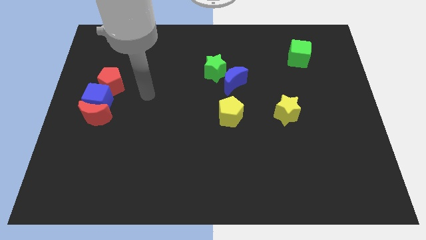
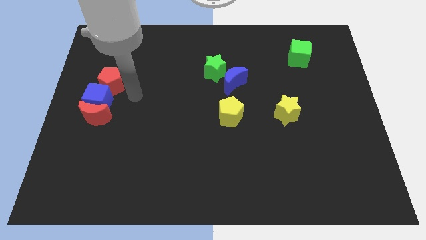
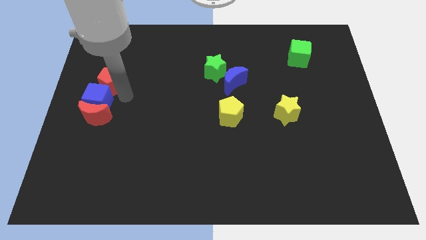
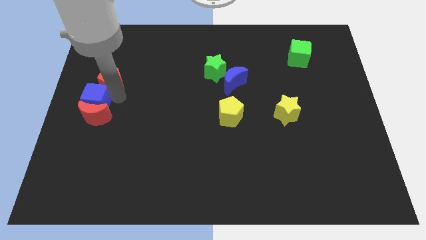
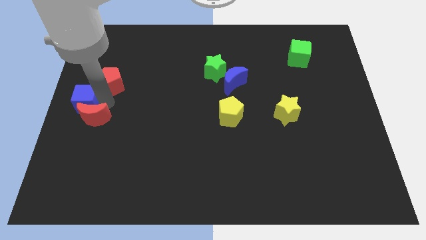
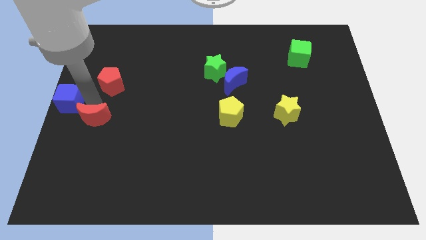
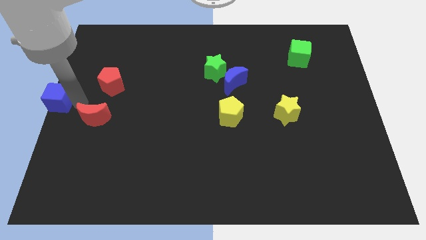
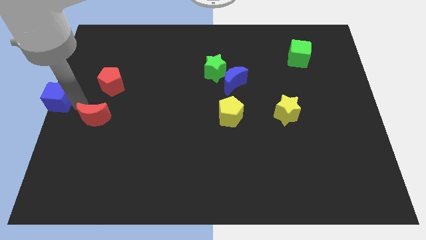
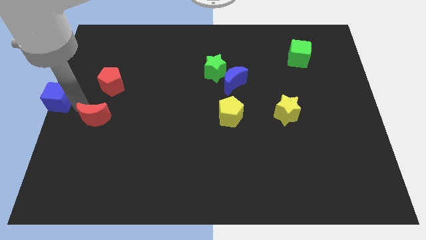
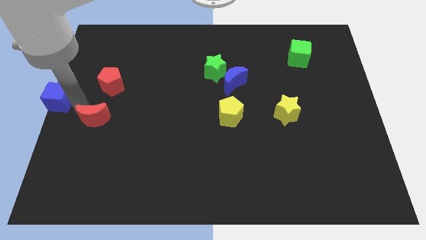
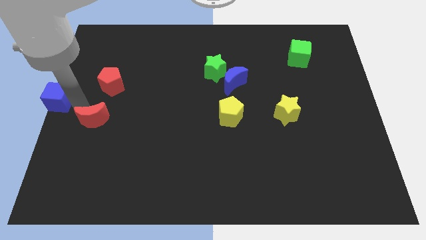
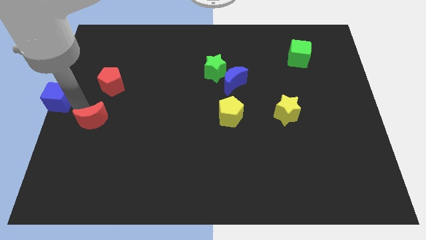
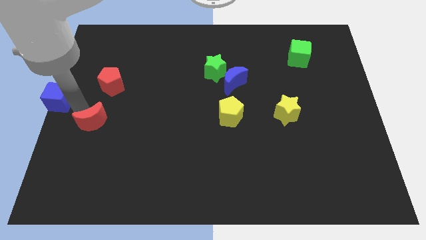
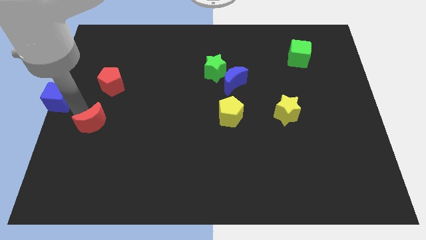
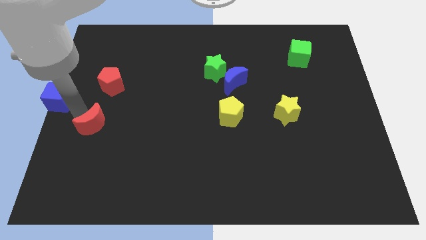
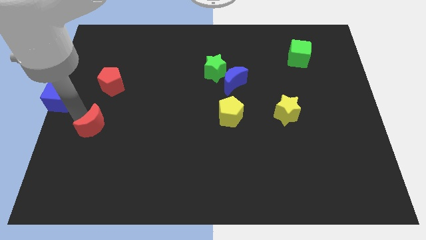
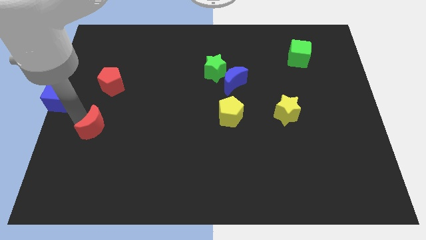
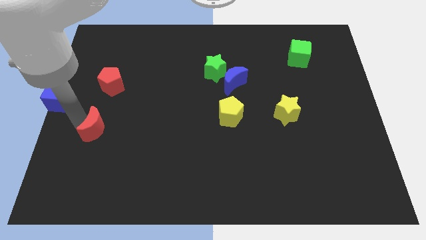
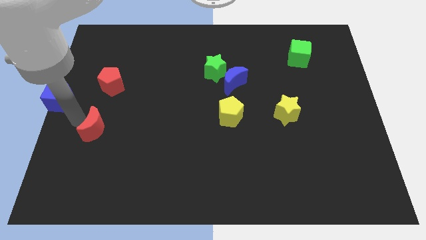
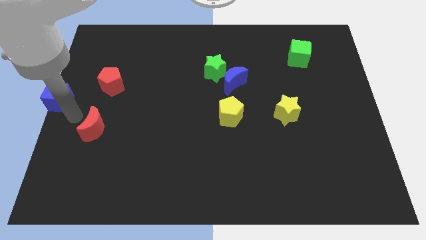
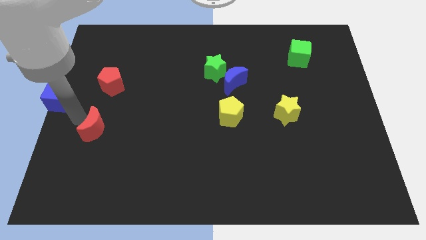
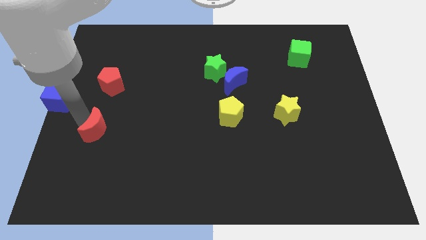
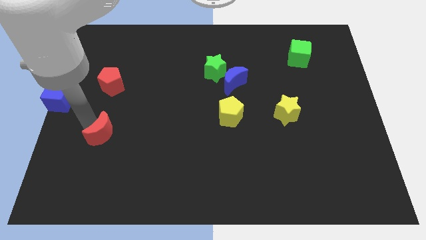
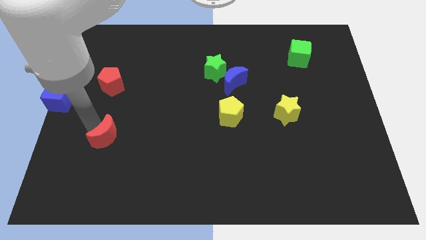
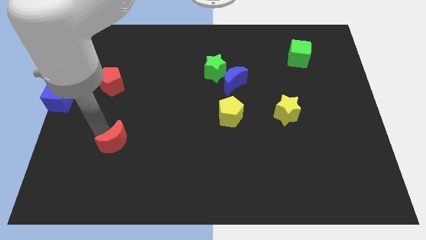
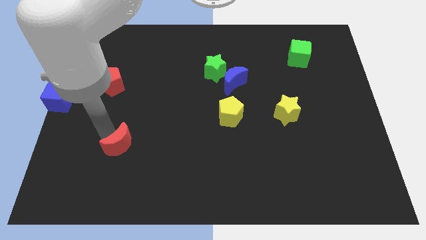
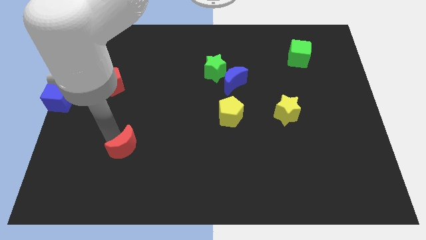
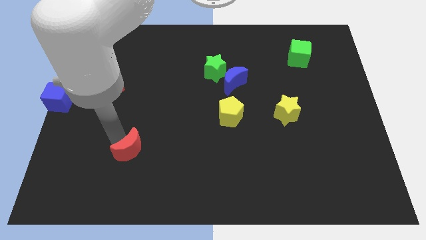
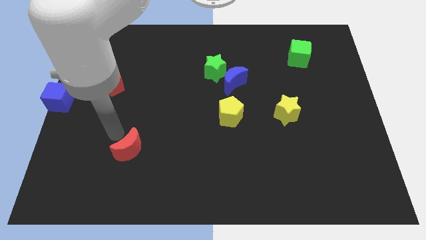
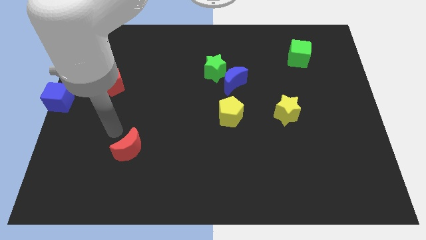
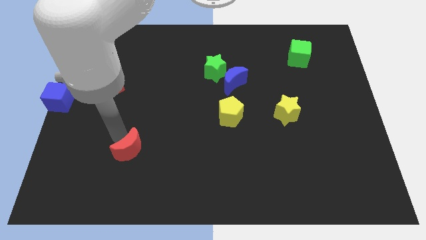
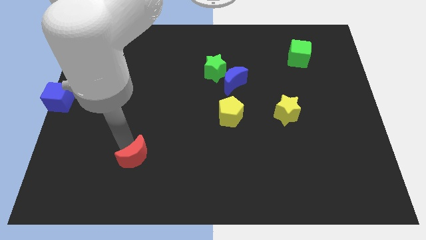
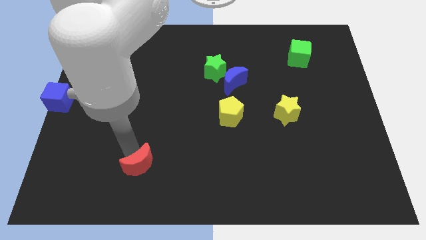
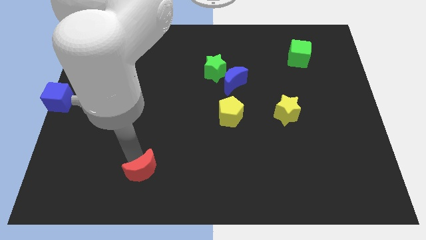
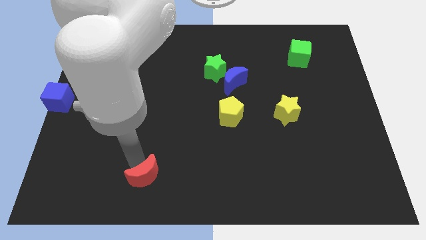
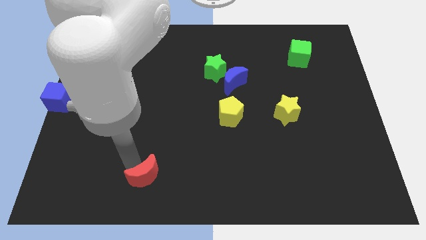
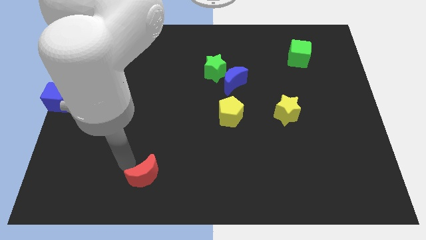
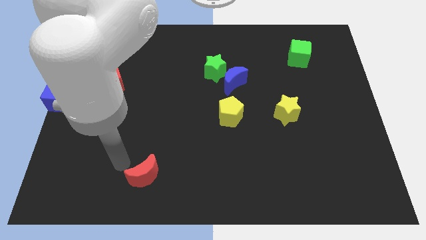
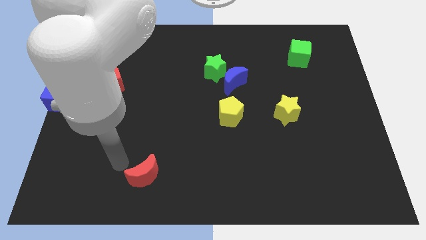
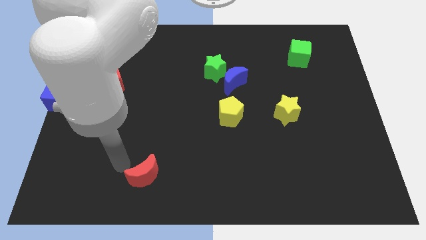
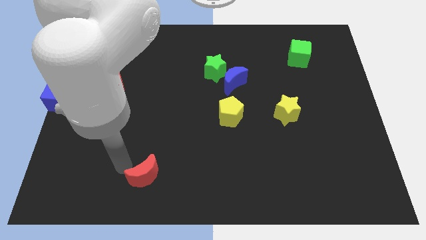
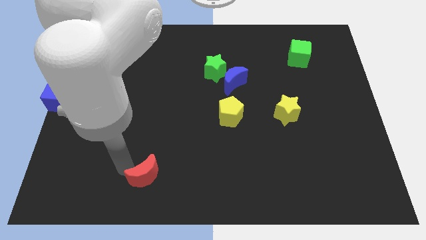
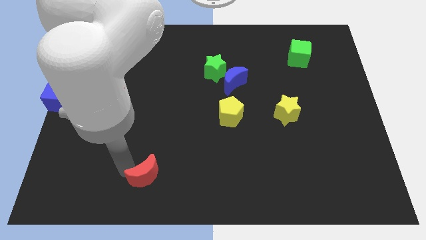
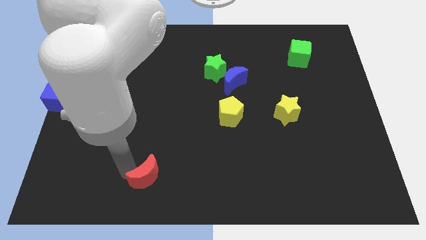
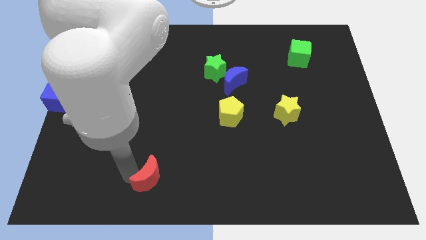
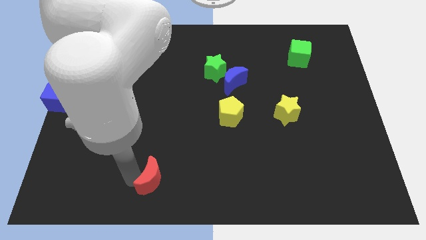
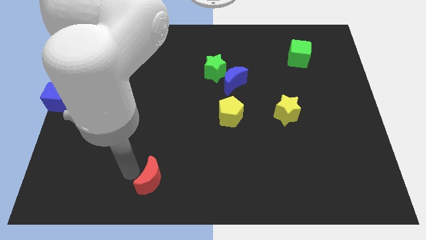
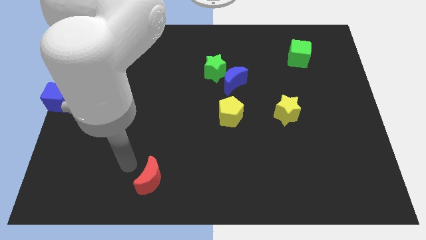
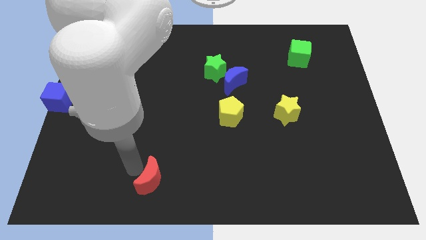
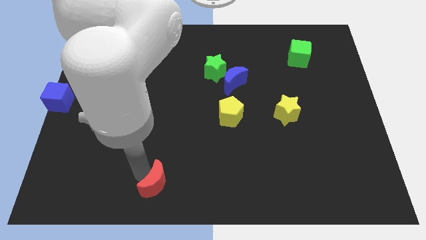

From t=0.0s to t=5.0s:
put the red moon to the bottom side

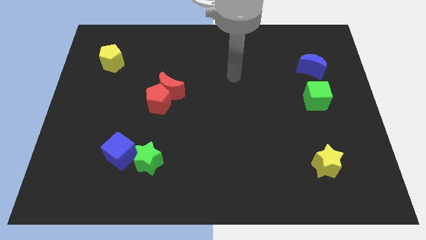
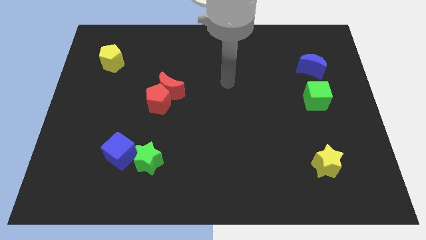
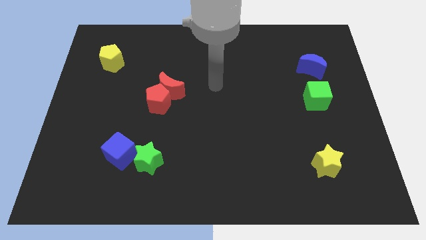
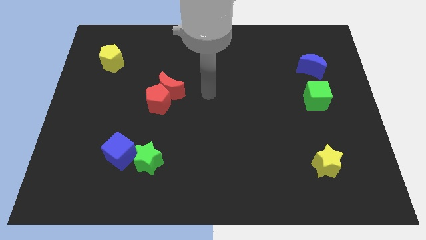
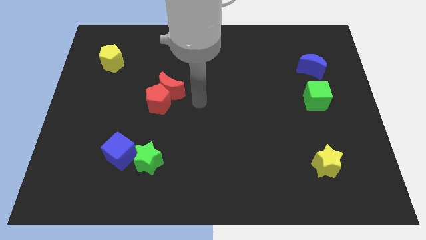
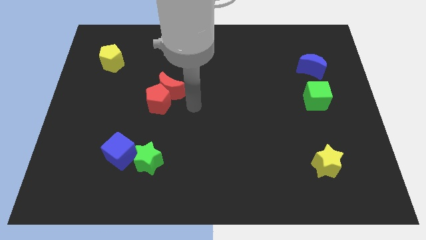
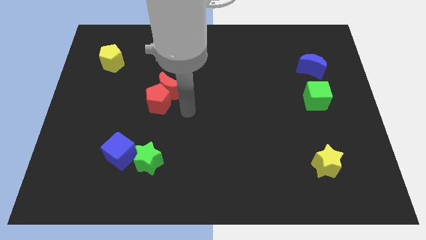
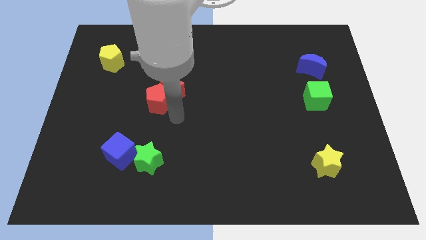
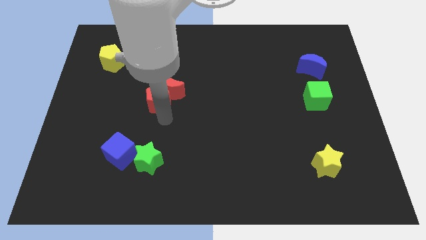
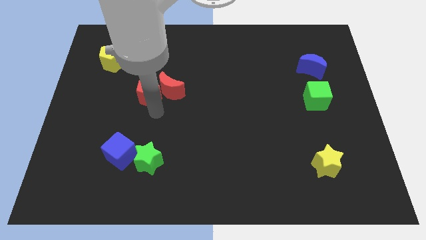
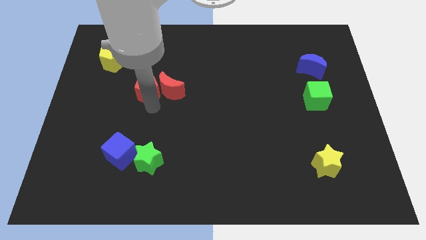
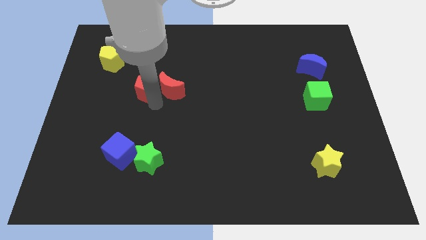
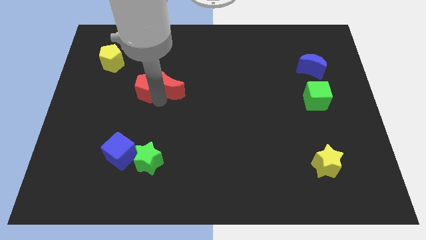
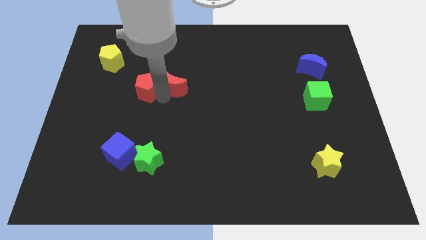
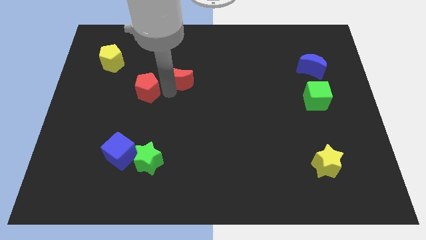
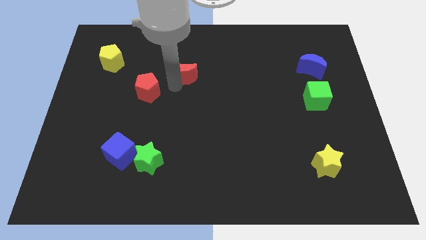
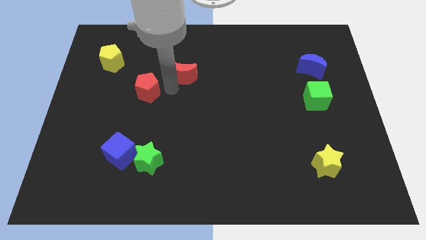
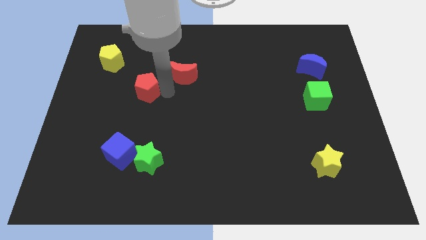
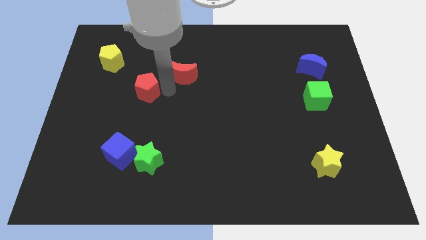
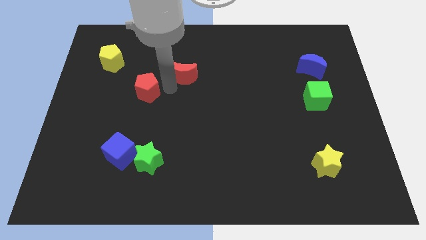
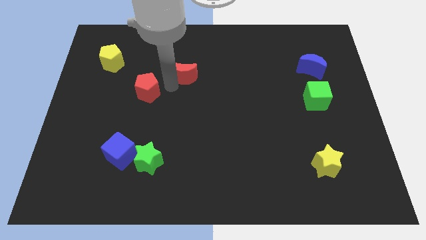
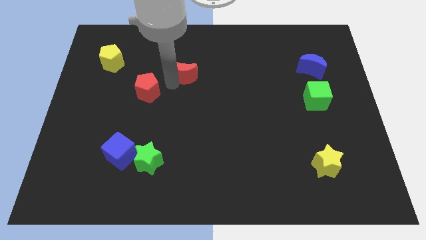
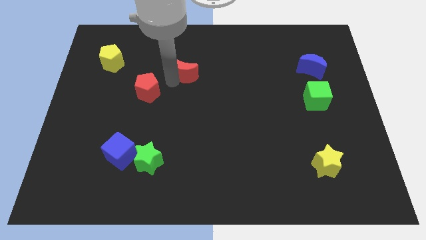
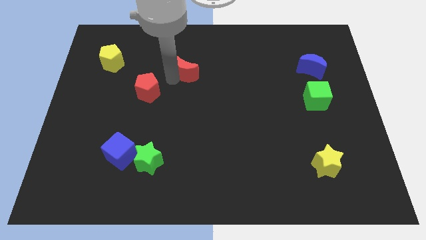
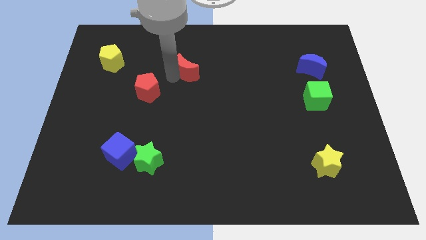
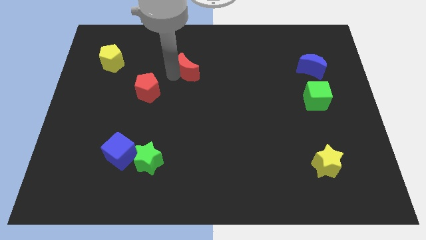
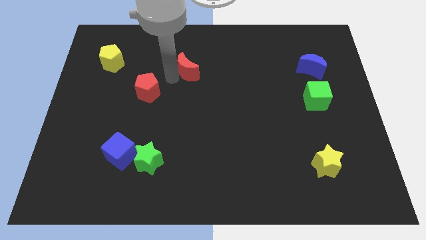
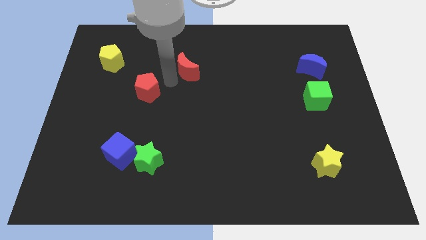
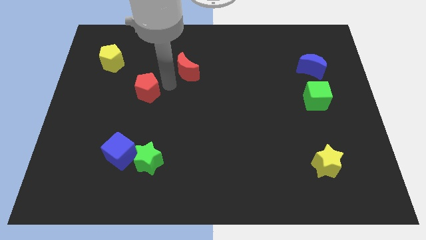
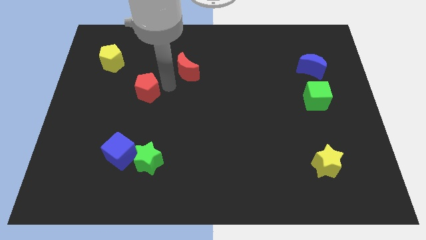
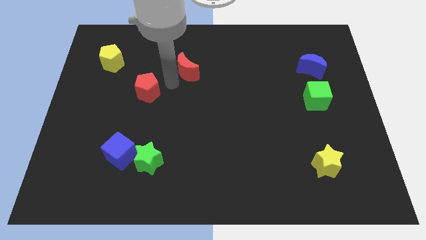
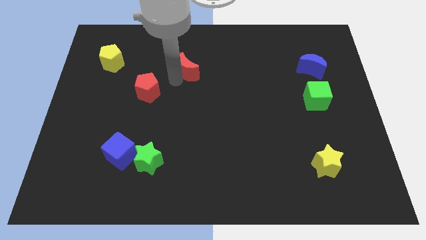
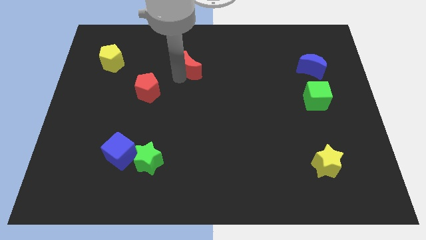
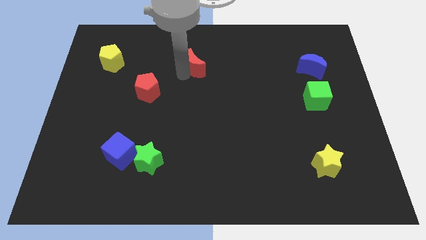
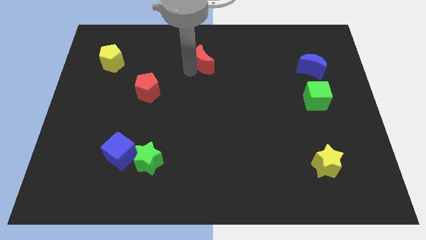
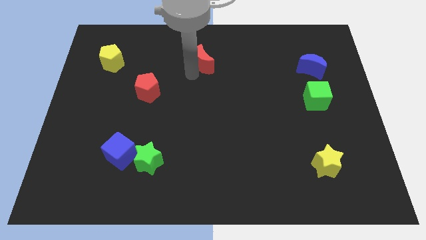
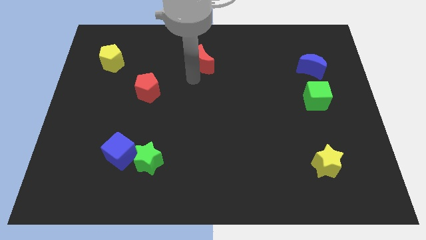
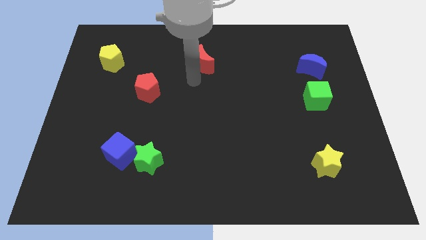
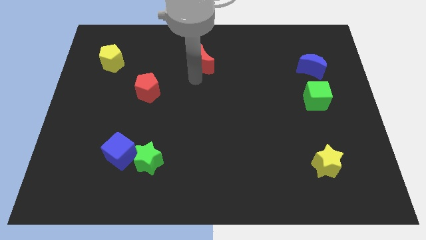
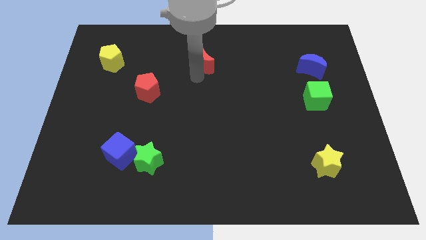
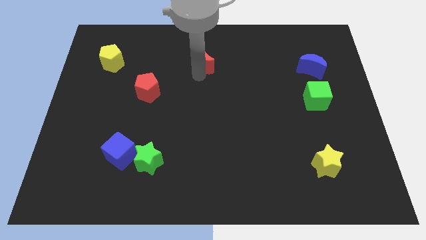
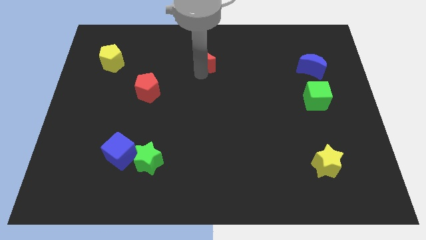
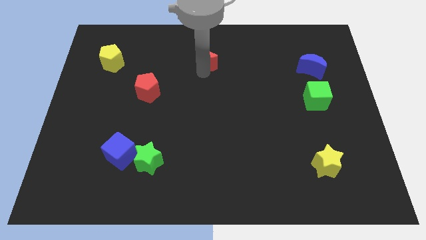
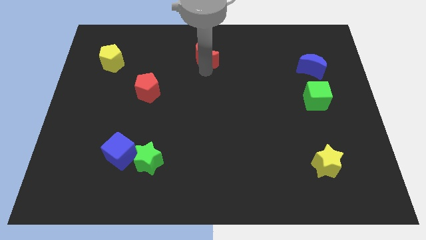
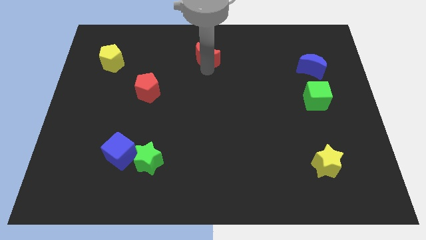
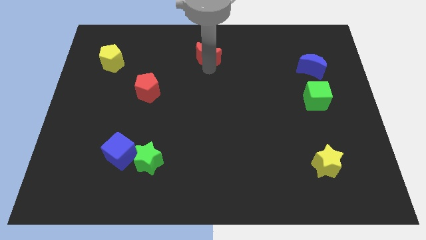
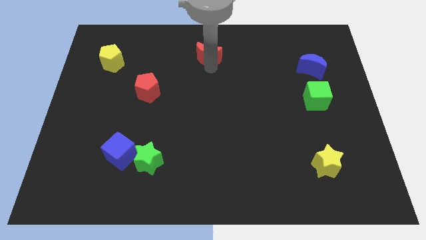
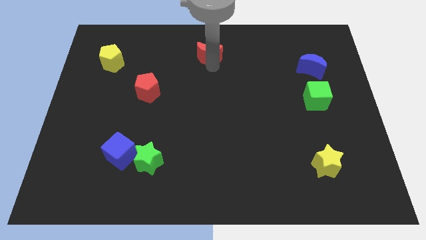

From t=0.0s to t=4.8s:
slide the red moon to the top
